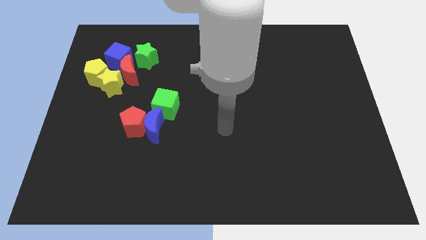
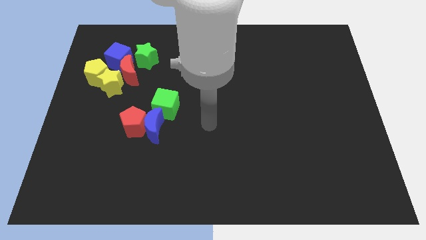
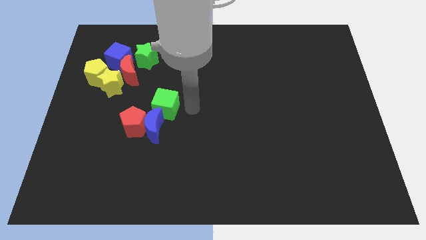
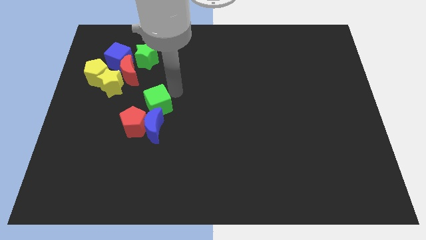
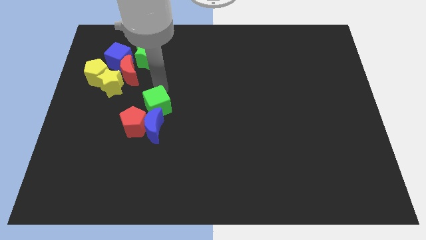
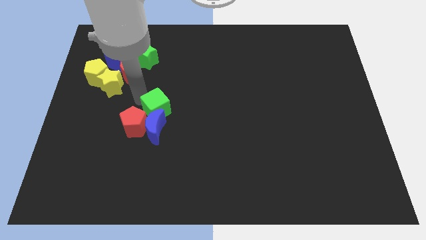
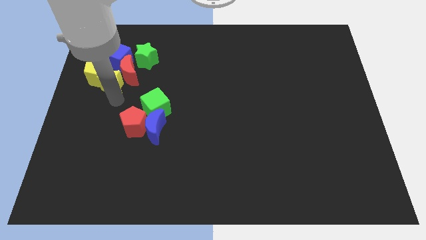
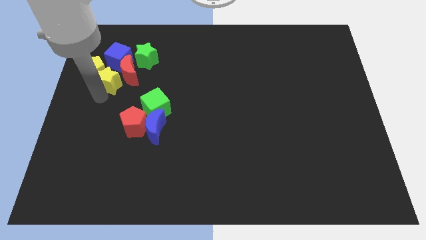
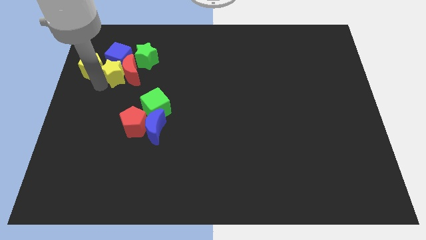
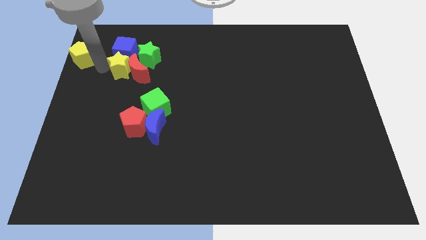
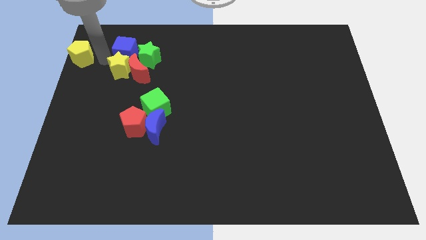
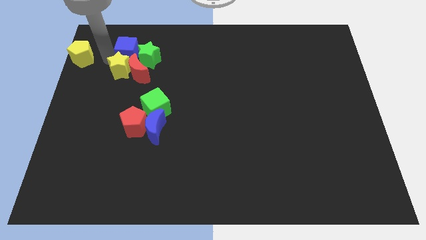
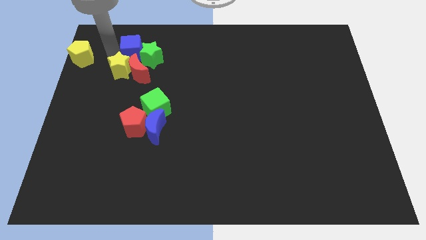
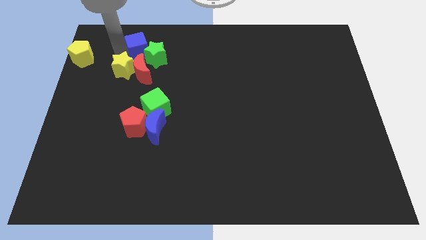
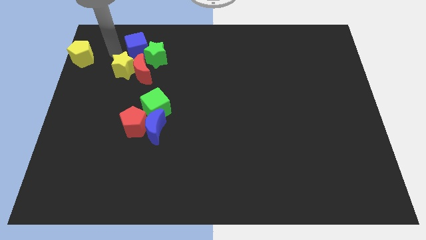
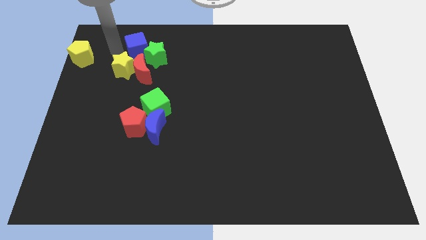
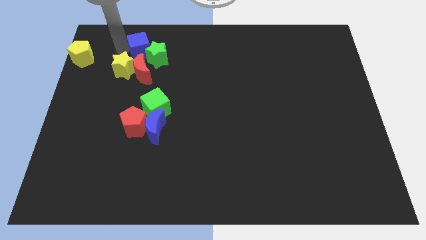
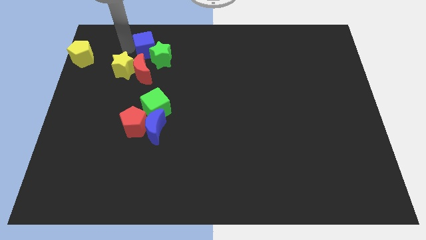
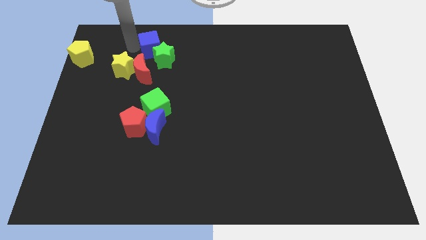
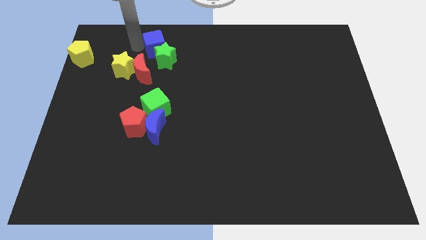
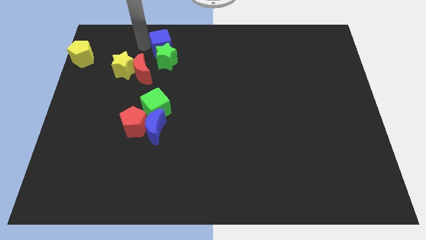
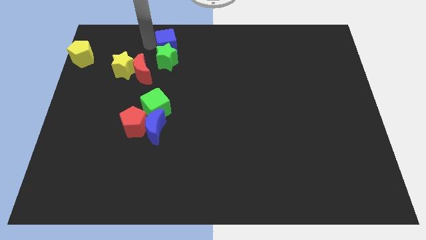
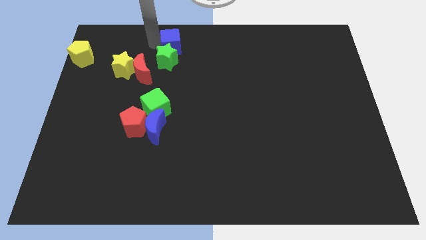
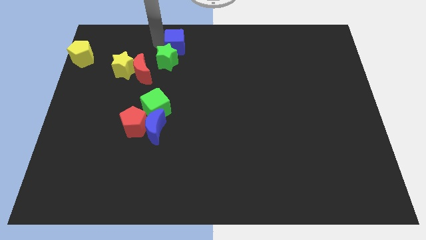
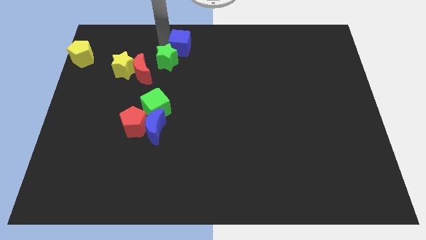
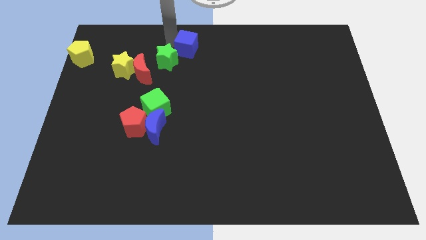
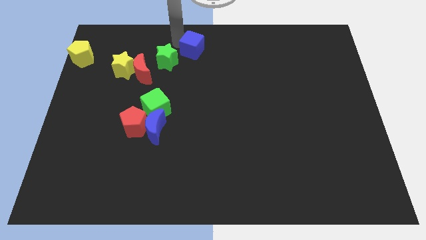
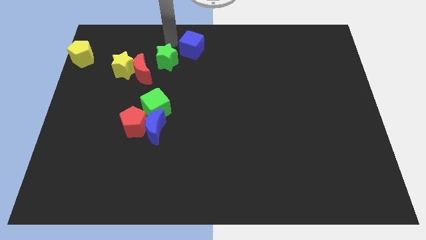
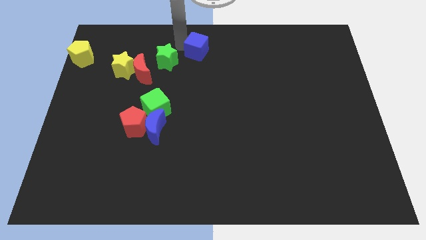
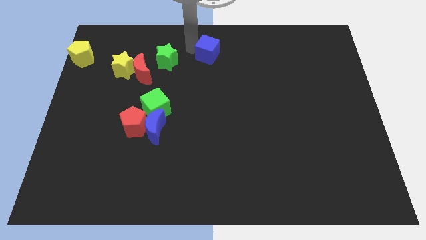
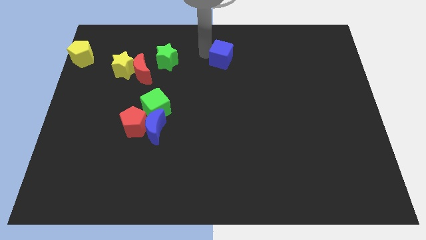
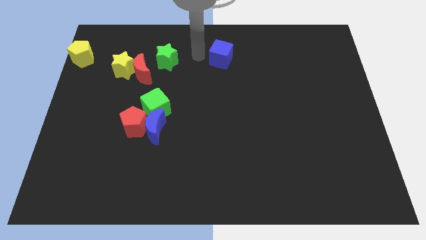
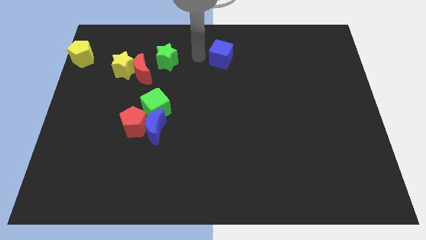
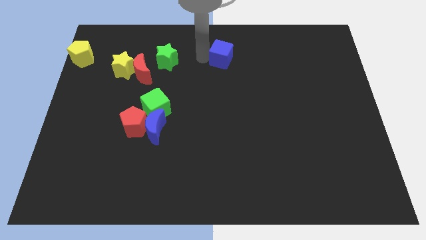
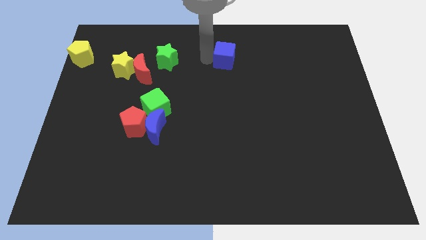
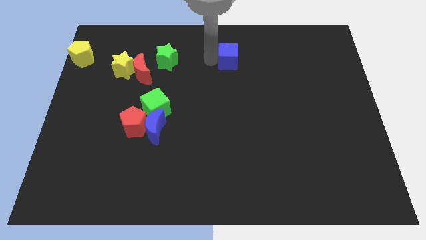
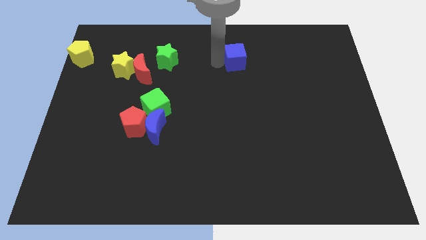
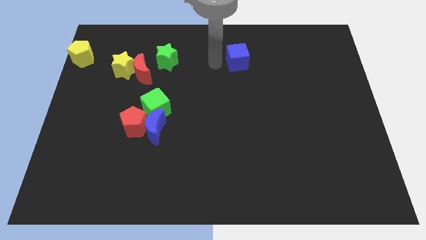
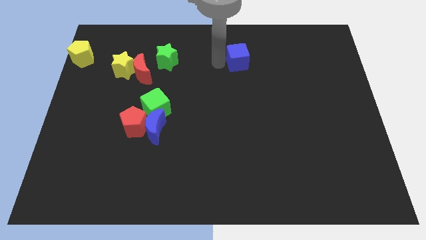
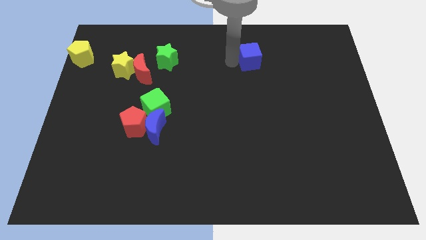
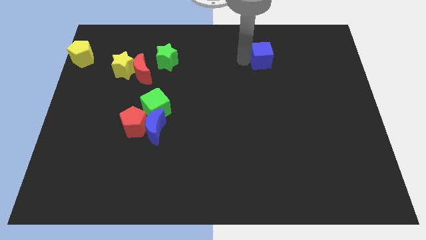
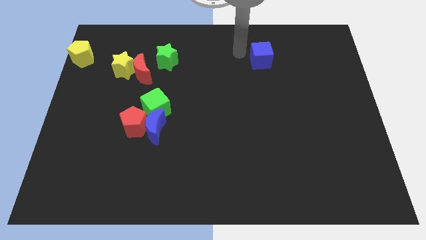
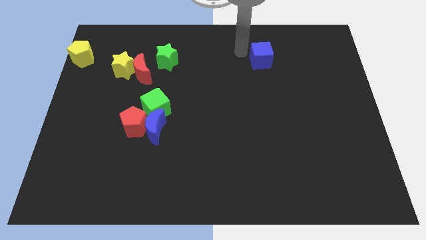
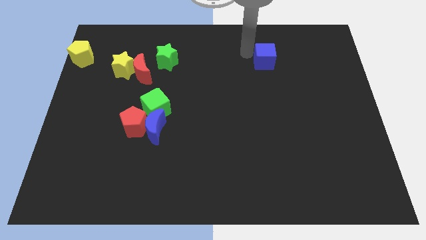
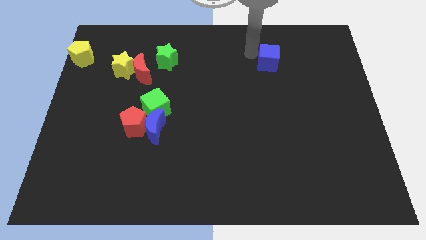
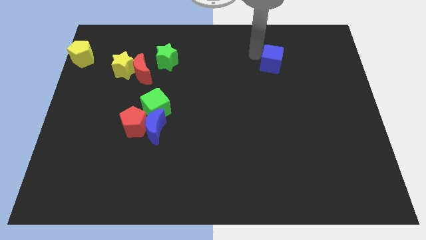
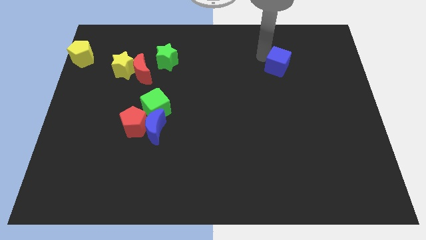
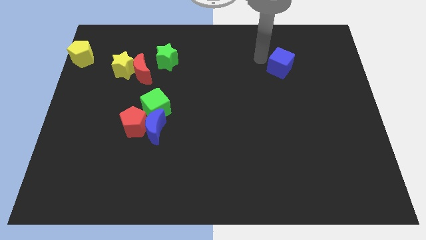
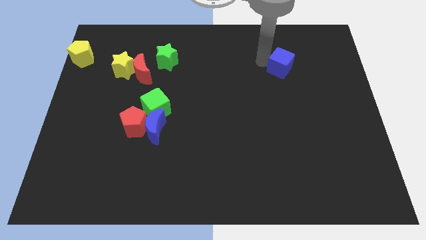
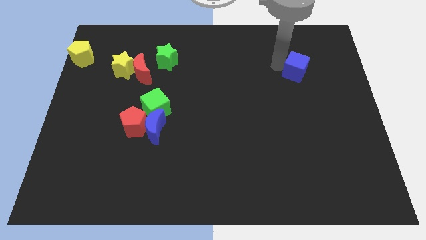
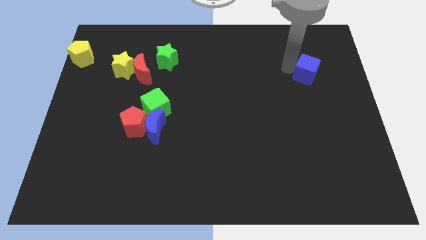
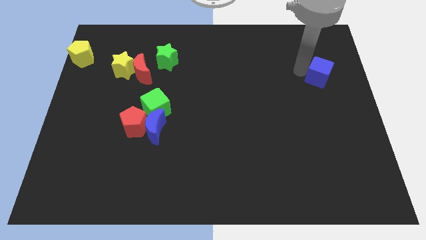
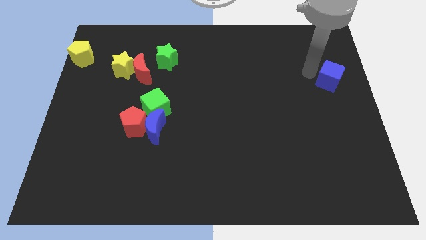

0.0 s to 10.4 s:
push the blue cube to the right side of the board

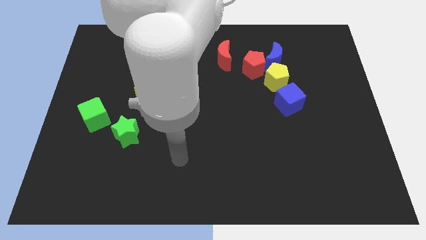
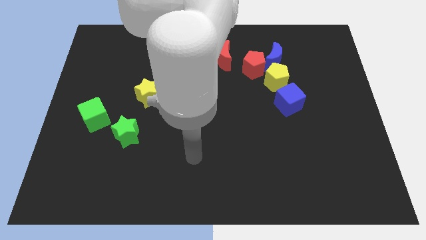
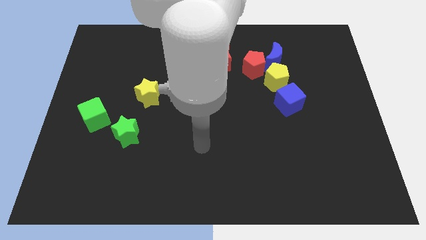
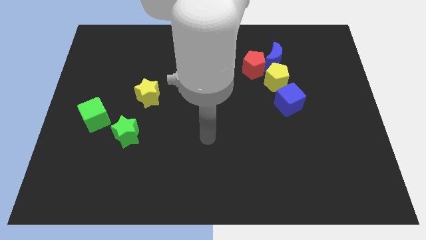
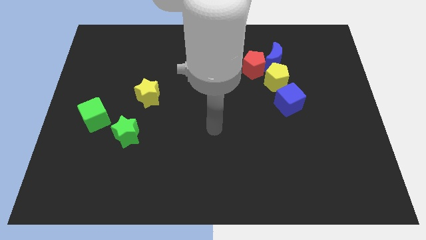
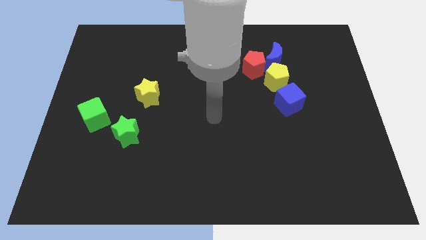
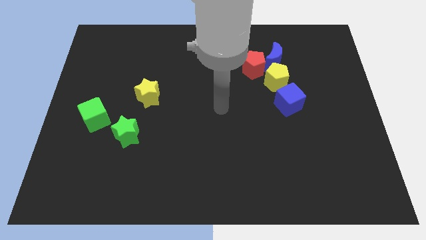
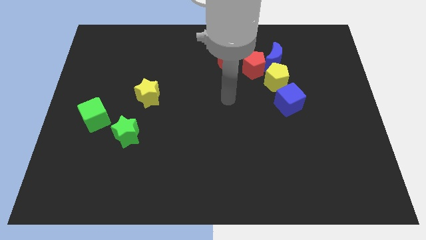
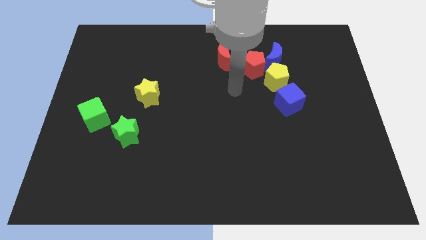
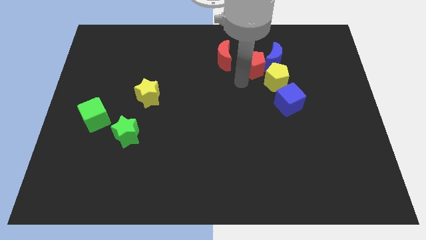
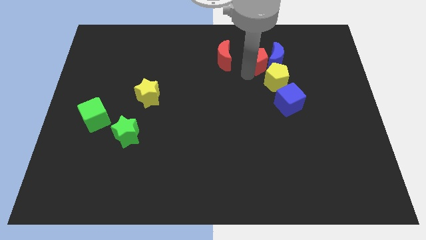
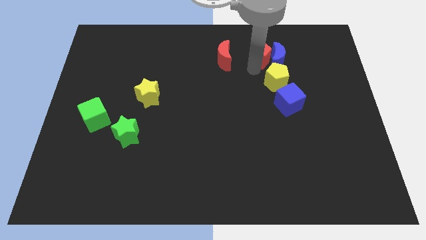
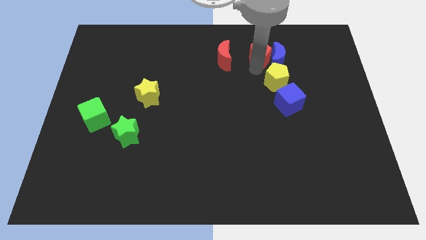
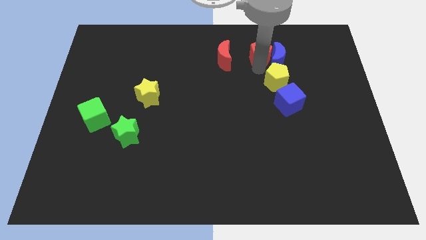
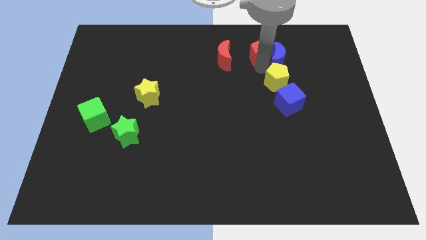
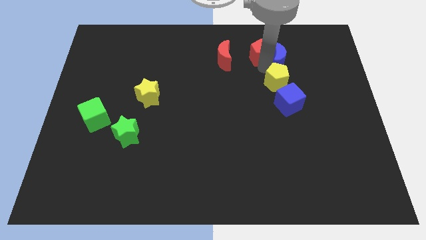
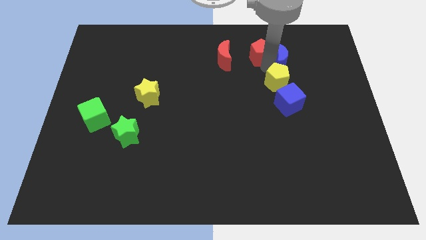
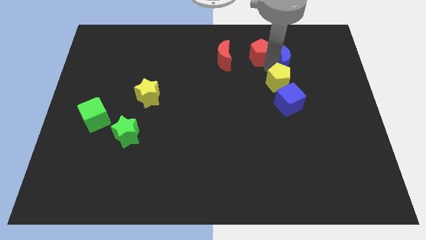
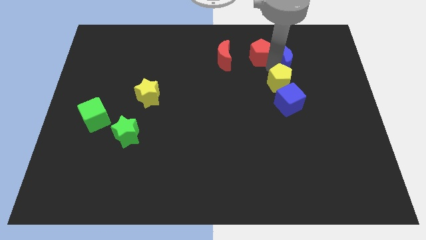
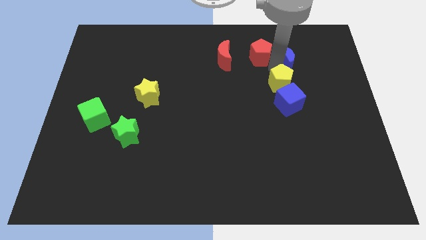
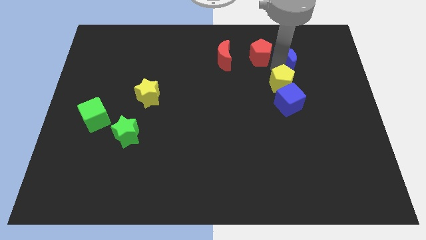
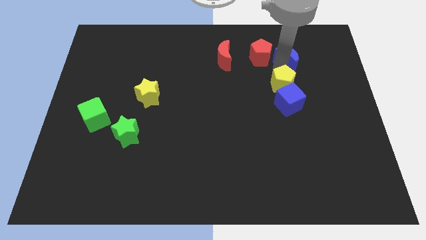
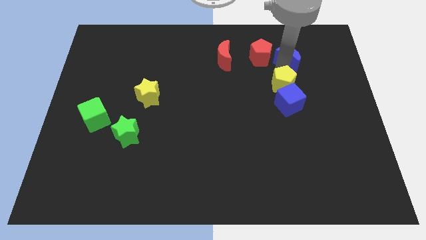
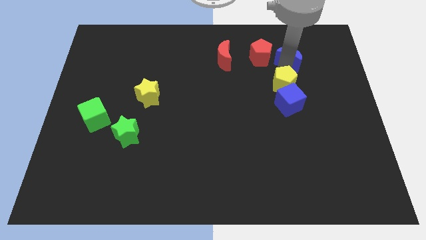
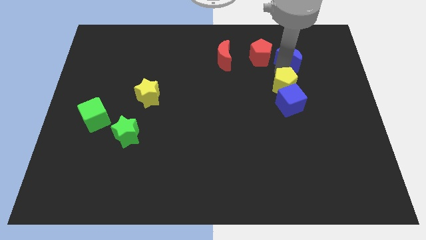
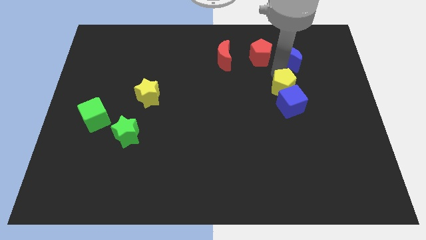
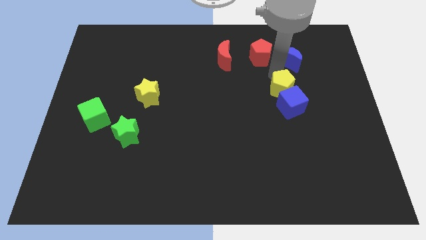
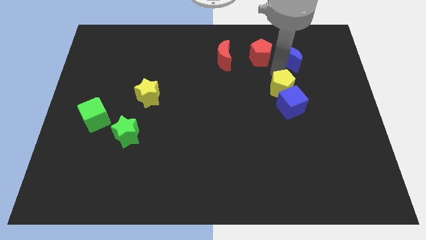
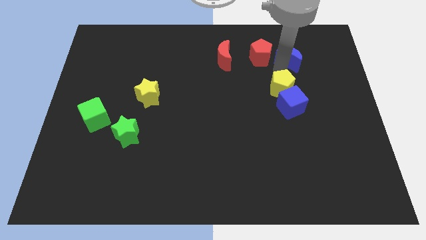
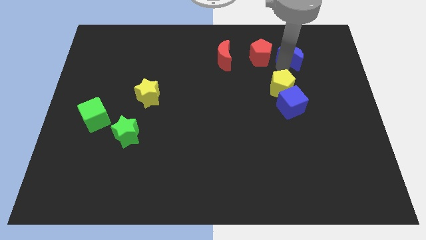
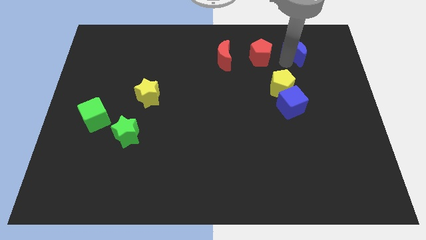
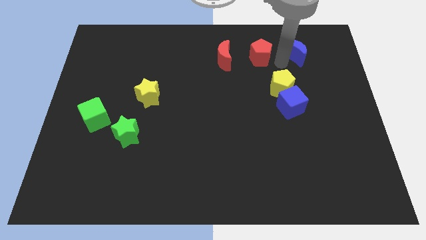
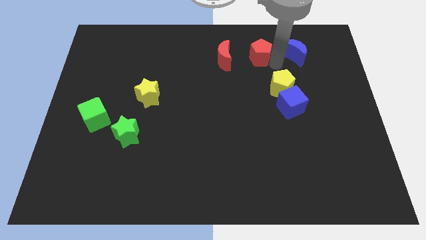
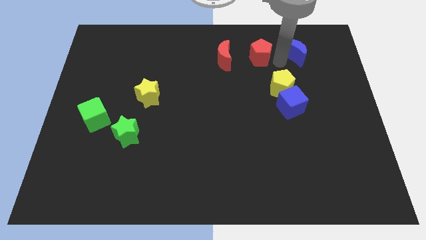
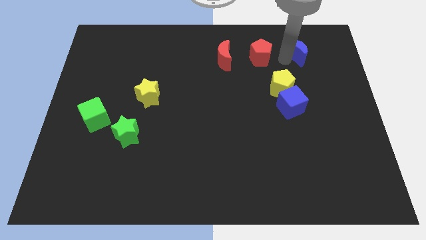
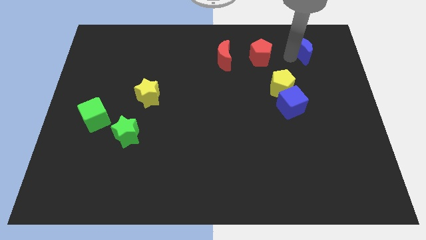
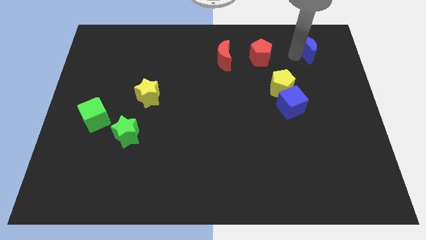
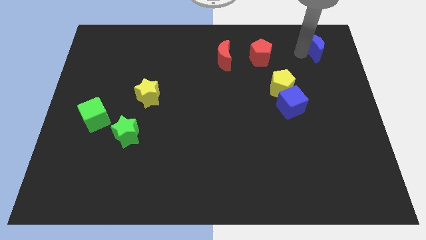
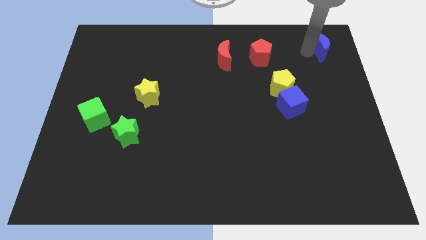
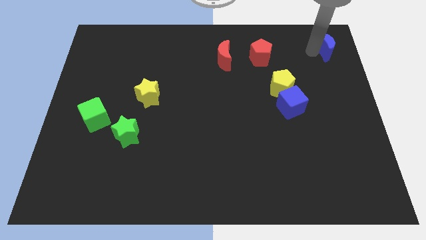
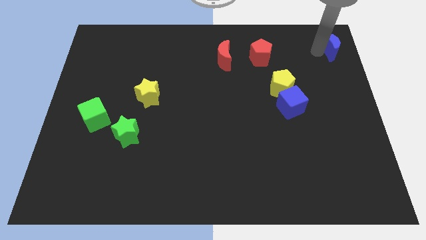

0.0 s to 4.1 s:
put the blue moon to the top right corner
